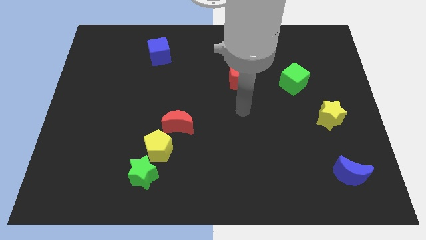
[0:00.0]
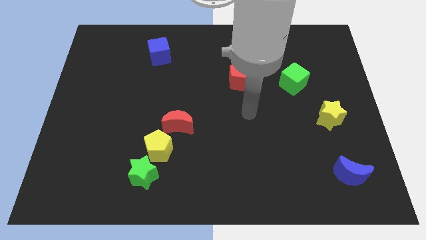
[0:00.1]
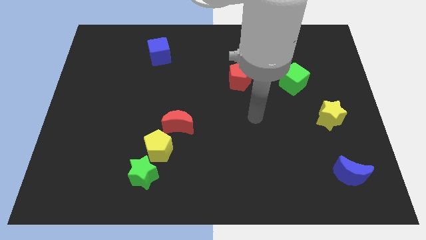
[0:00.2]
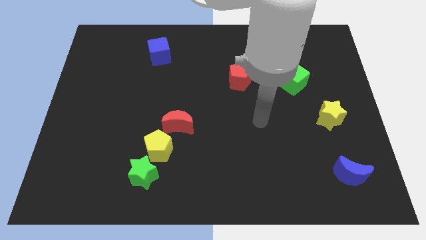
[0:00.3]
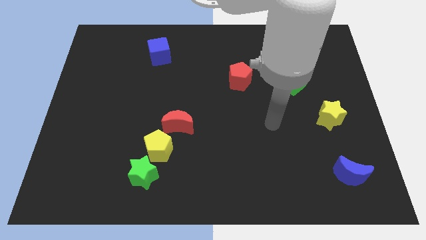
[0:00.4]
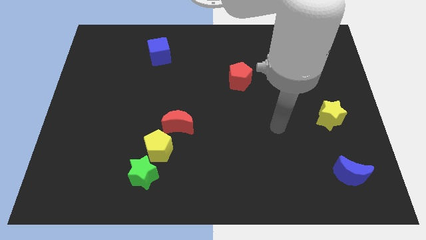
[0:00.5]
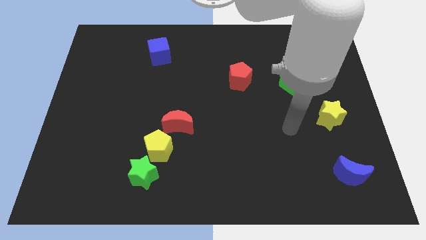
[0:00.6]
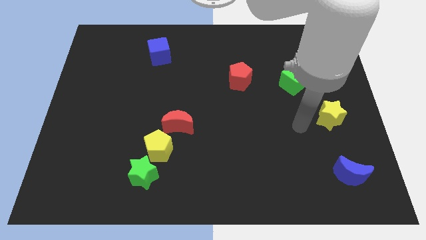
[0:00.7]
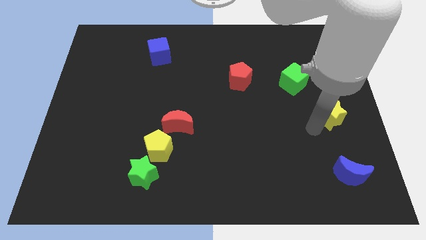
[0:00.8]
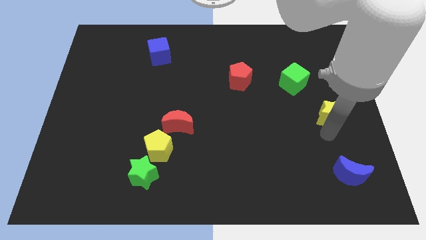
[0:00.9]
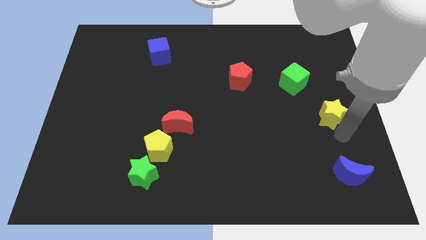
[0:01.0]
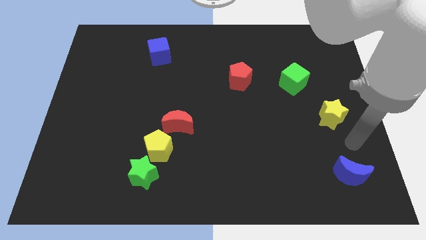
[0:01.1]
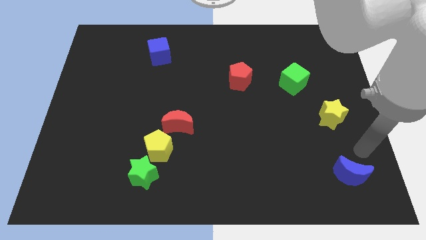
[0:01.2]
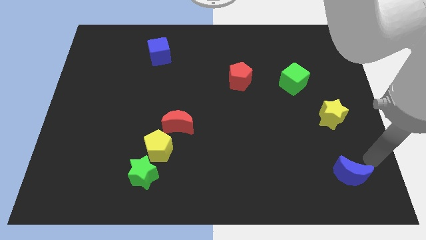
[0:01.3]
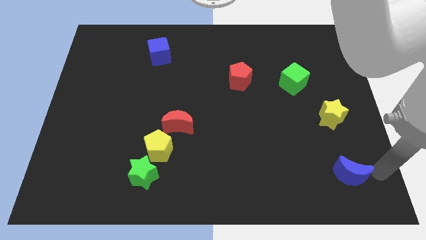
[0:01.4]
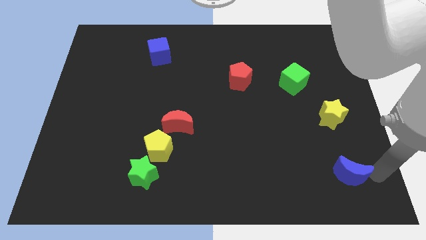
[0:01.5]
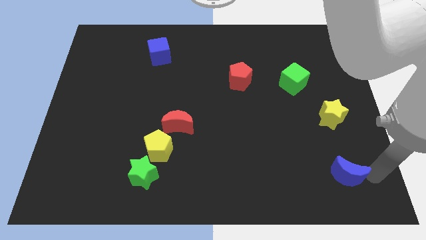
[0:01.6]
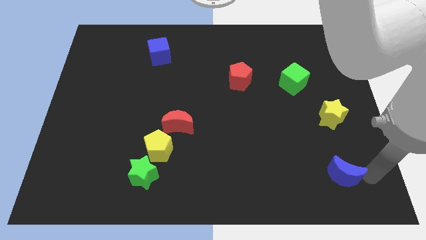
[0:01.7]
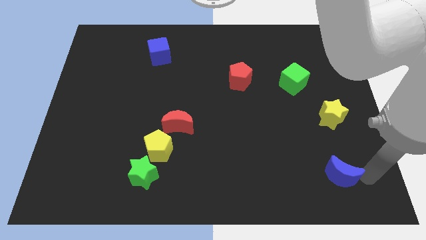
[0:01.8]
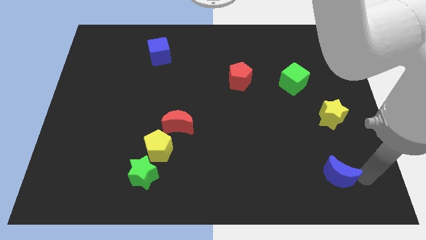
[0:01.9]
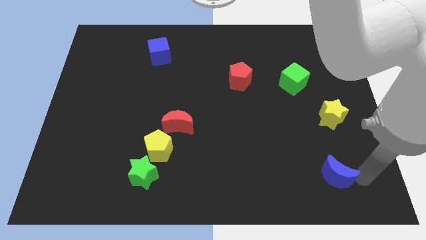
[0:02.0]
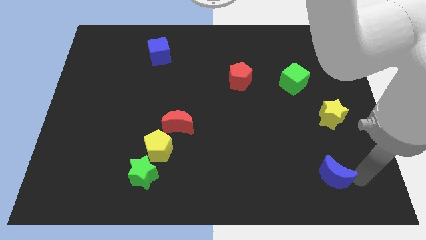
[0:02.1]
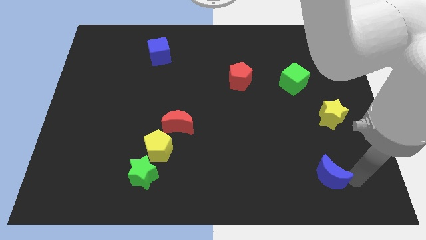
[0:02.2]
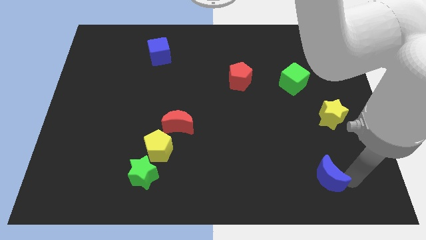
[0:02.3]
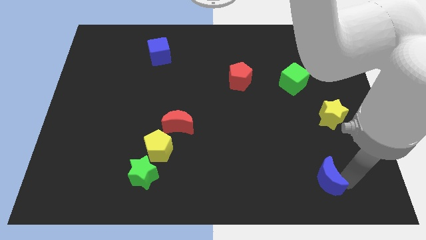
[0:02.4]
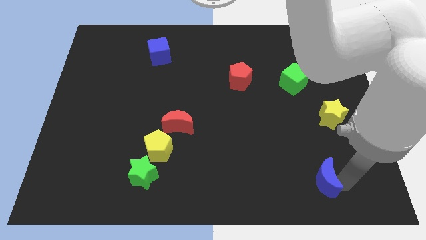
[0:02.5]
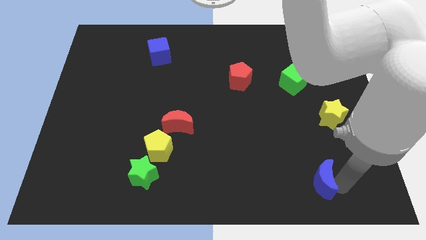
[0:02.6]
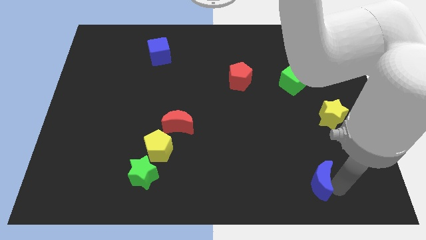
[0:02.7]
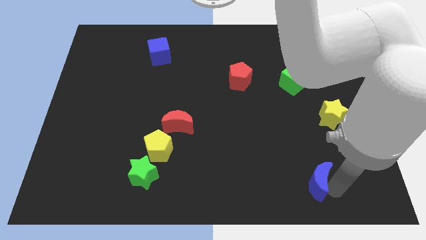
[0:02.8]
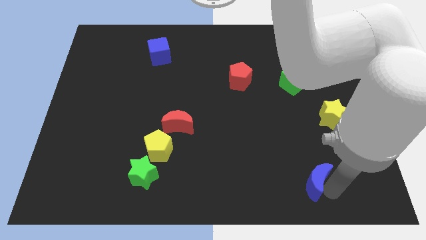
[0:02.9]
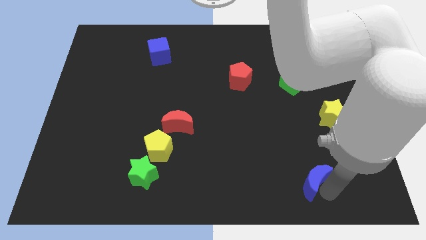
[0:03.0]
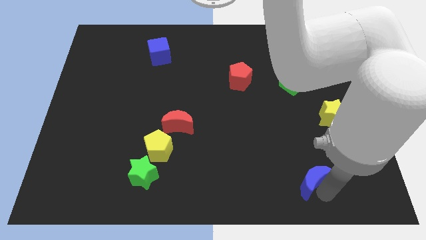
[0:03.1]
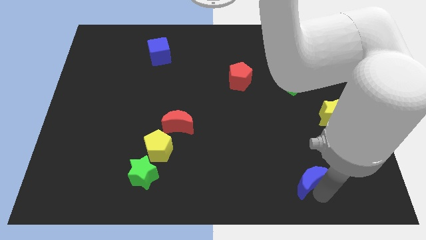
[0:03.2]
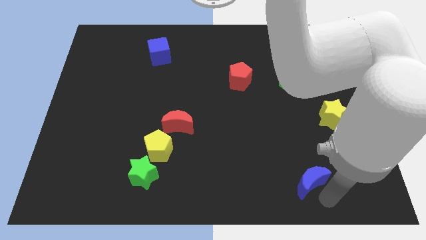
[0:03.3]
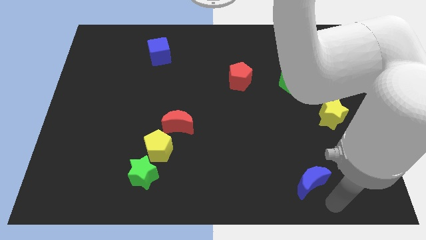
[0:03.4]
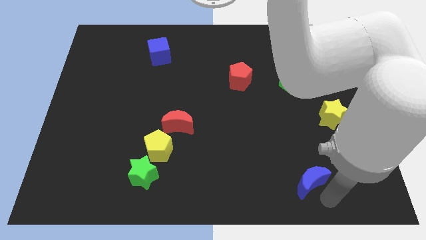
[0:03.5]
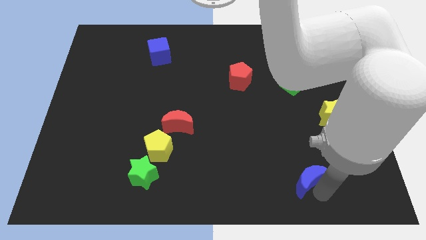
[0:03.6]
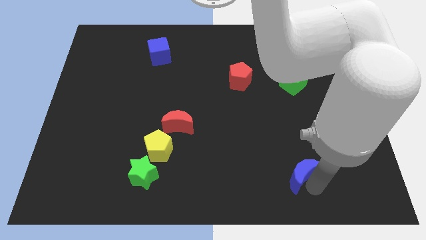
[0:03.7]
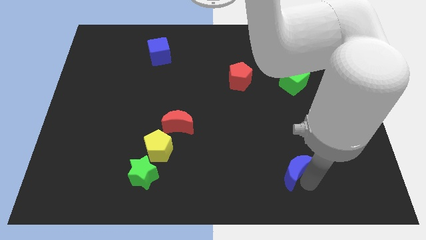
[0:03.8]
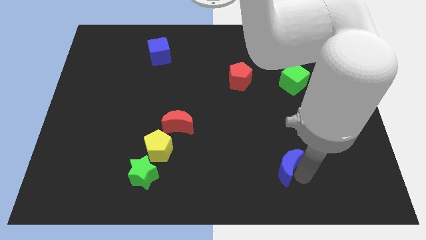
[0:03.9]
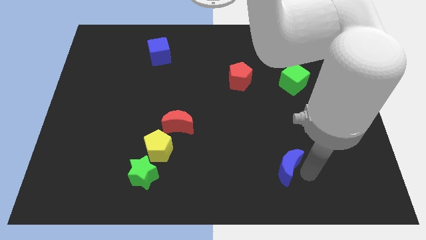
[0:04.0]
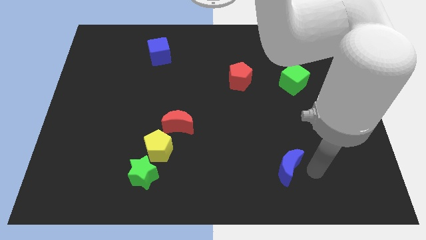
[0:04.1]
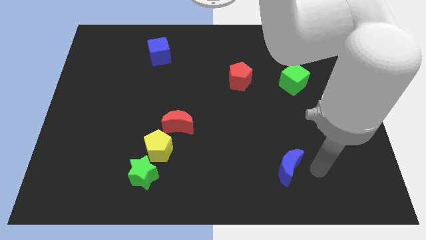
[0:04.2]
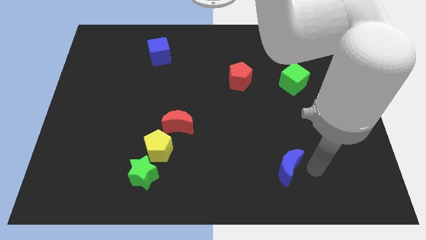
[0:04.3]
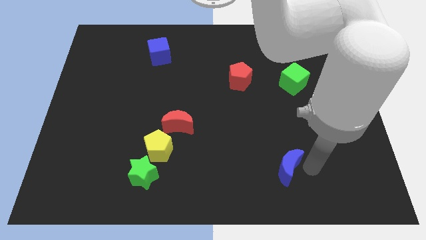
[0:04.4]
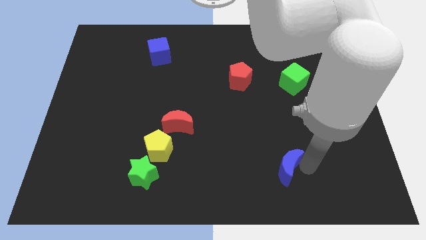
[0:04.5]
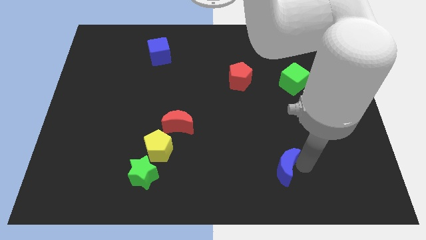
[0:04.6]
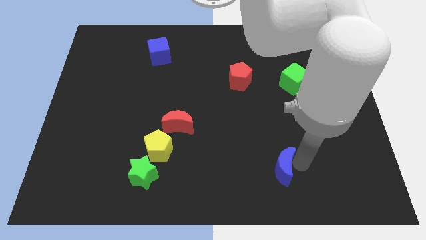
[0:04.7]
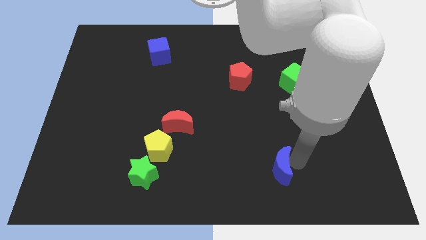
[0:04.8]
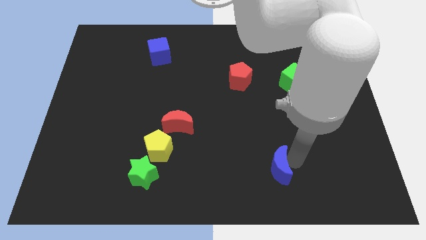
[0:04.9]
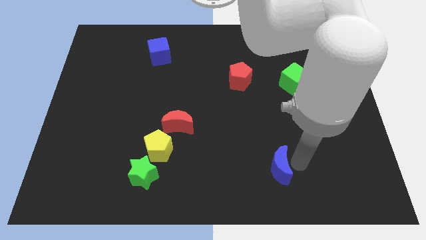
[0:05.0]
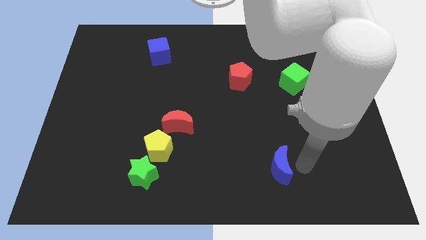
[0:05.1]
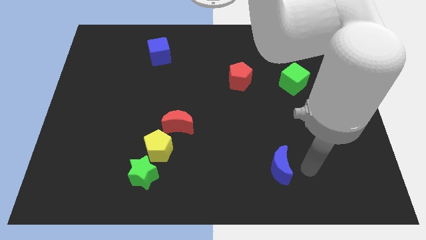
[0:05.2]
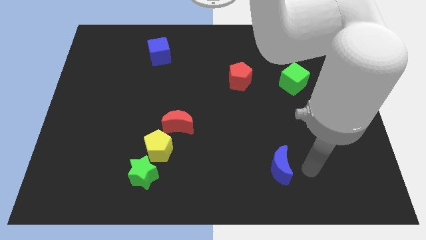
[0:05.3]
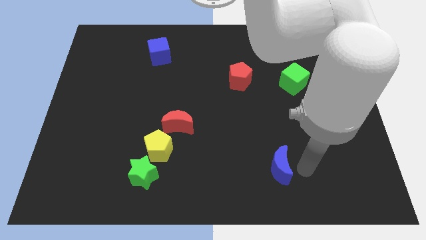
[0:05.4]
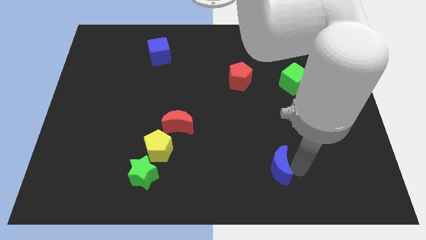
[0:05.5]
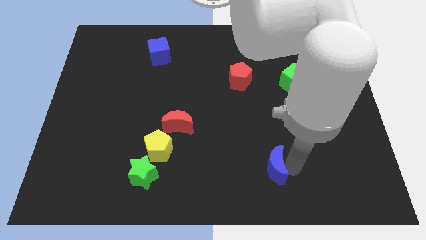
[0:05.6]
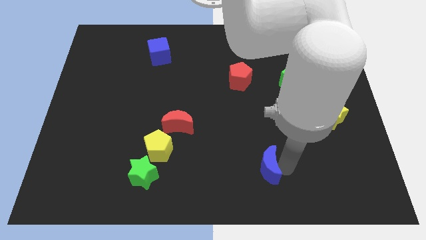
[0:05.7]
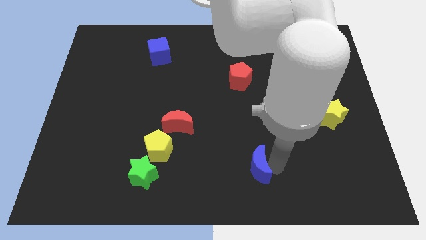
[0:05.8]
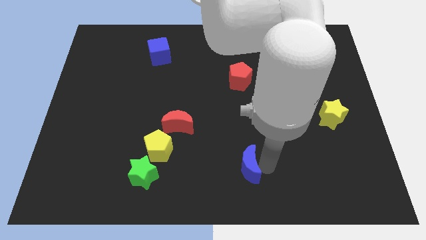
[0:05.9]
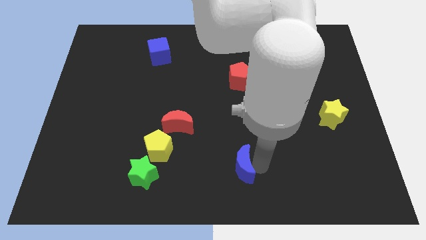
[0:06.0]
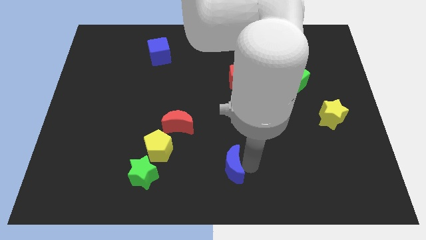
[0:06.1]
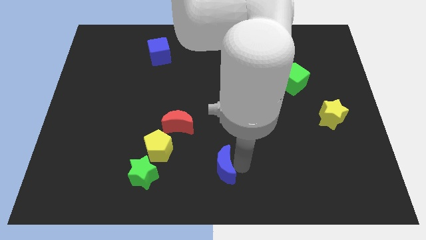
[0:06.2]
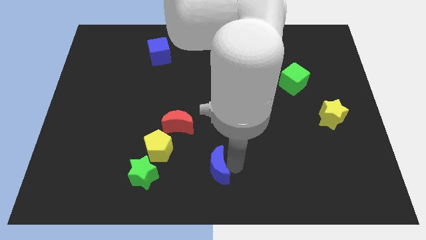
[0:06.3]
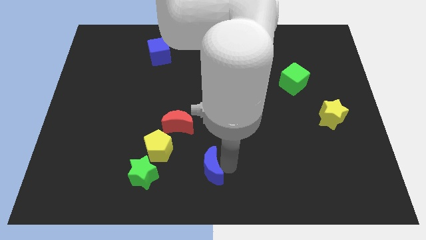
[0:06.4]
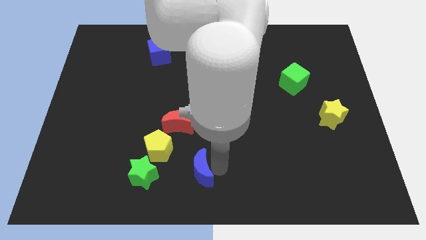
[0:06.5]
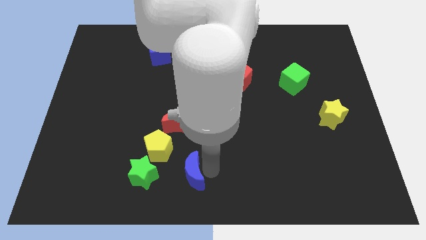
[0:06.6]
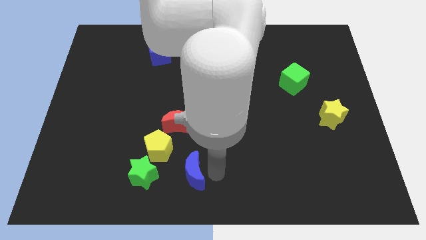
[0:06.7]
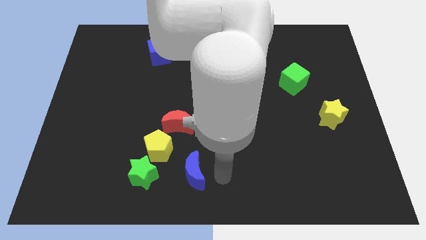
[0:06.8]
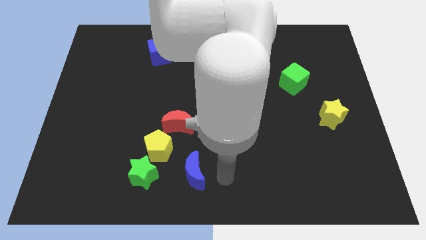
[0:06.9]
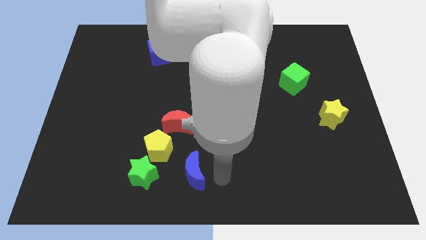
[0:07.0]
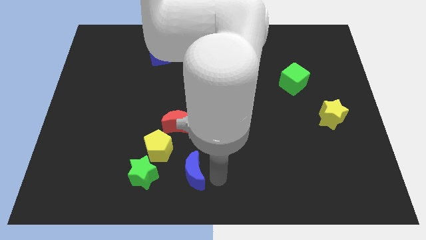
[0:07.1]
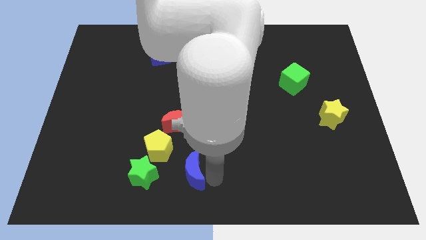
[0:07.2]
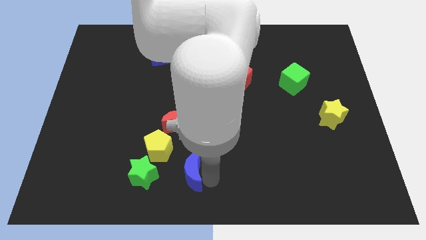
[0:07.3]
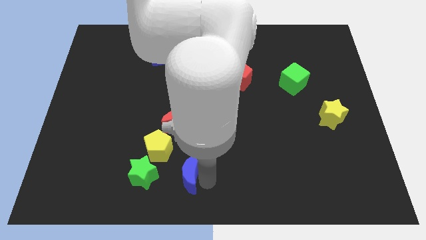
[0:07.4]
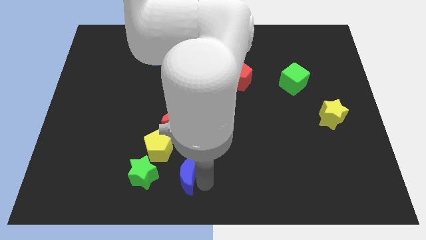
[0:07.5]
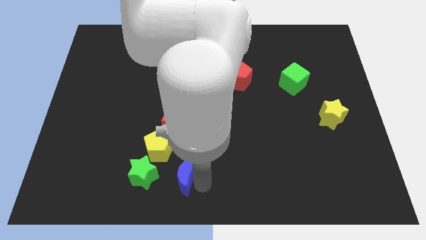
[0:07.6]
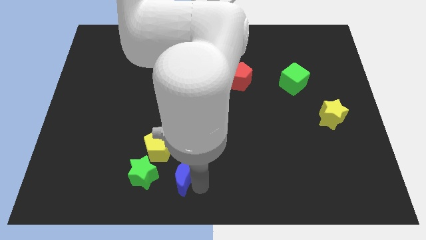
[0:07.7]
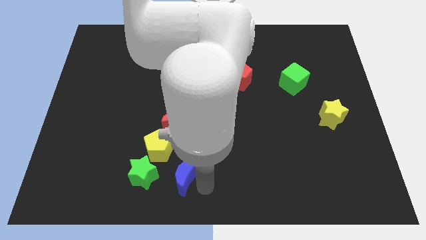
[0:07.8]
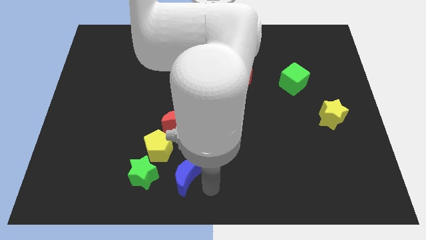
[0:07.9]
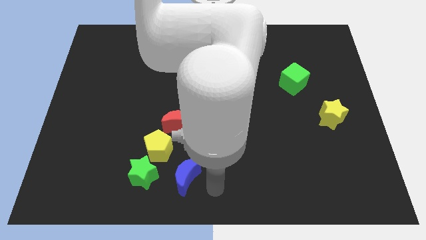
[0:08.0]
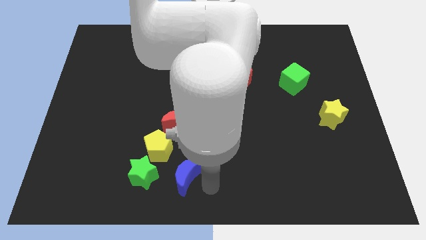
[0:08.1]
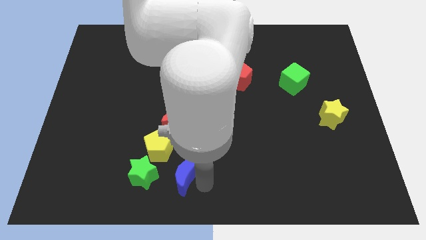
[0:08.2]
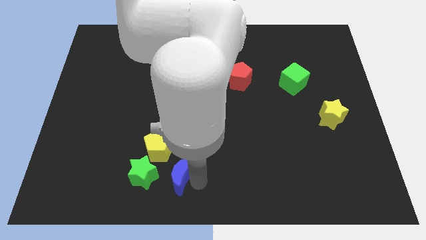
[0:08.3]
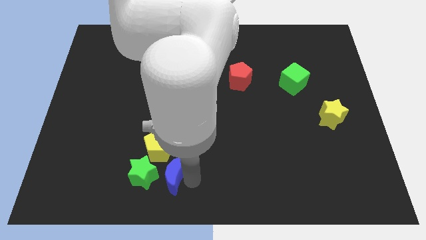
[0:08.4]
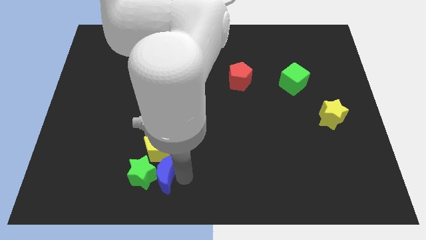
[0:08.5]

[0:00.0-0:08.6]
push the blue moon towards the green star
